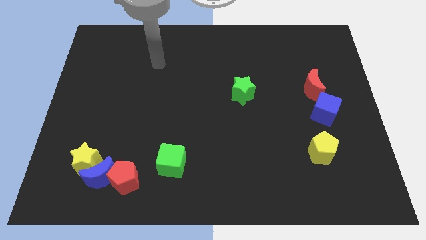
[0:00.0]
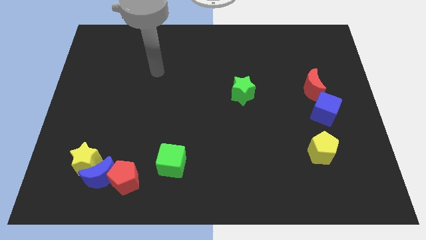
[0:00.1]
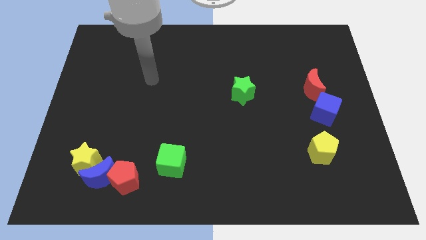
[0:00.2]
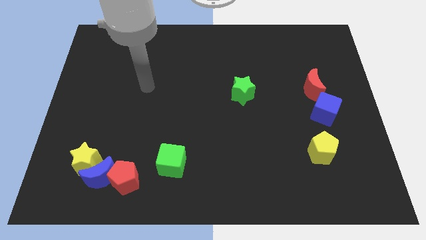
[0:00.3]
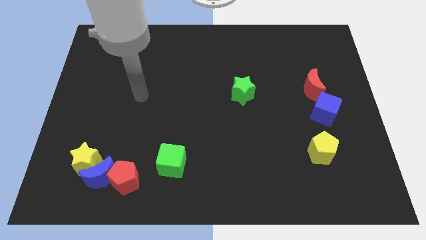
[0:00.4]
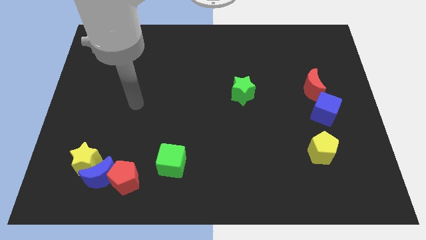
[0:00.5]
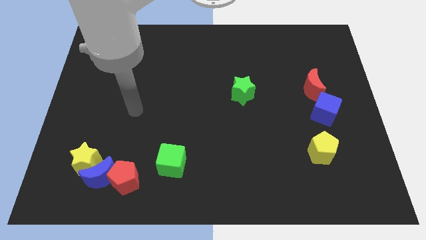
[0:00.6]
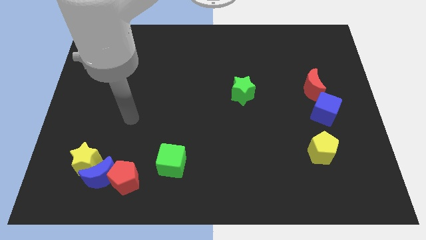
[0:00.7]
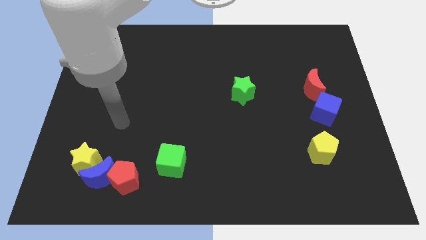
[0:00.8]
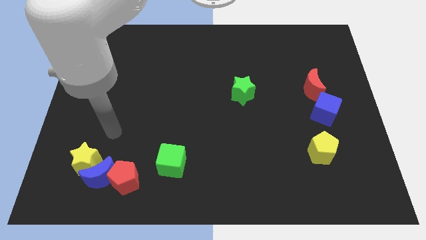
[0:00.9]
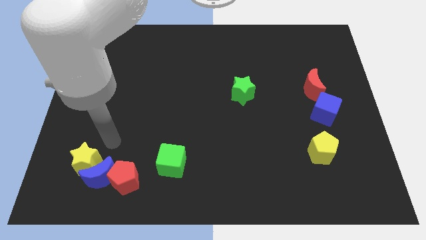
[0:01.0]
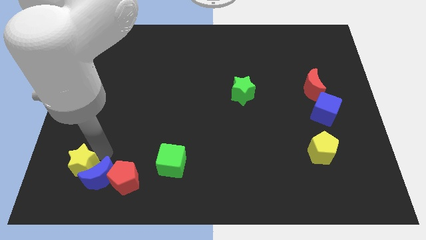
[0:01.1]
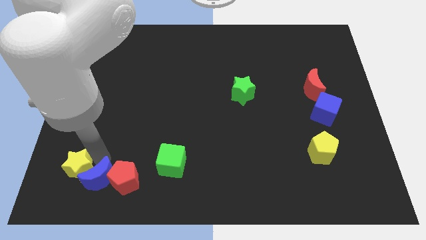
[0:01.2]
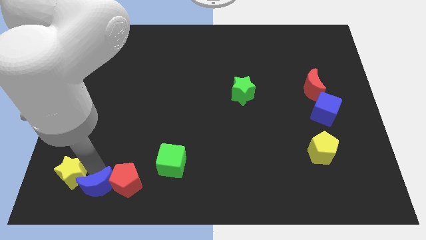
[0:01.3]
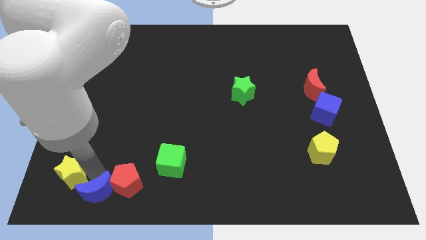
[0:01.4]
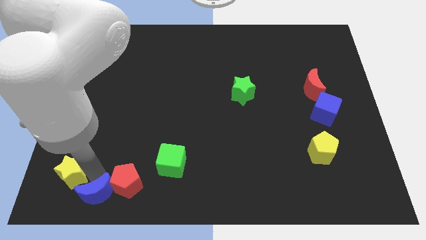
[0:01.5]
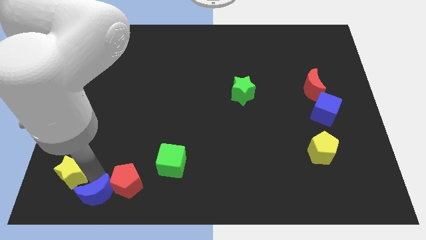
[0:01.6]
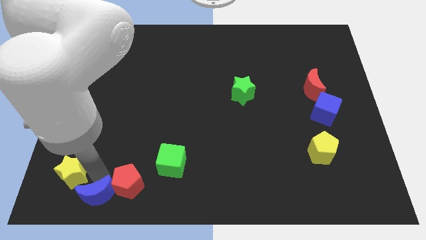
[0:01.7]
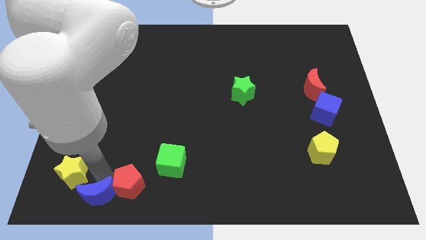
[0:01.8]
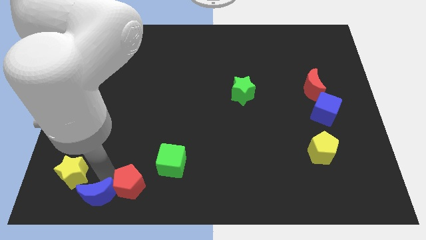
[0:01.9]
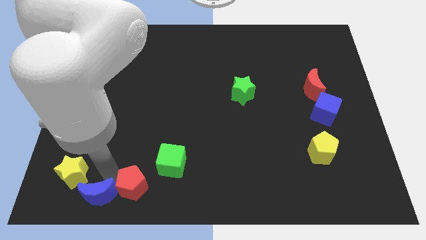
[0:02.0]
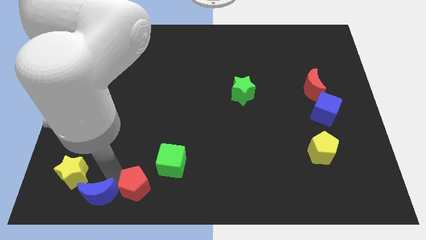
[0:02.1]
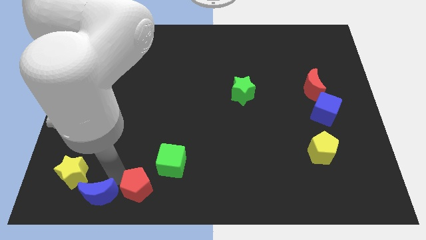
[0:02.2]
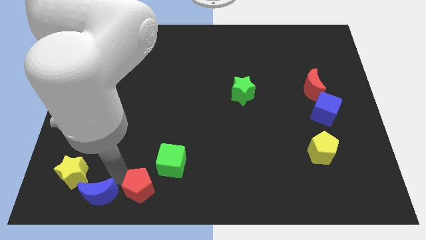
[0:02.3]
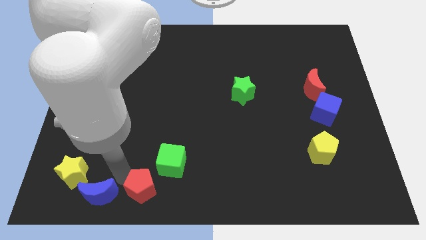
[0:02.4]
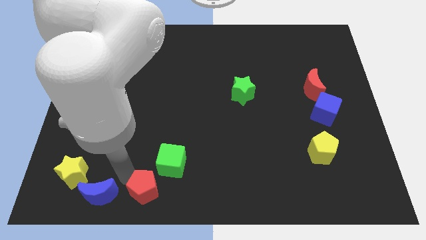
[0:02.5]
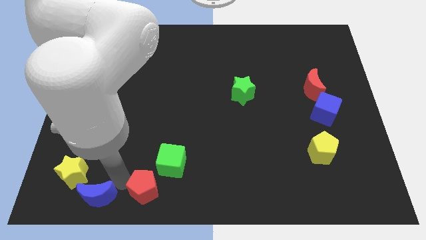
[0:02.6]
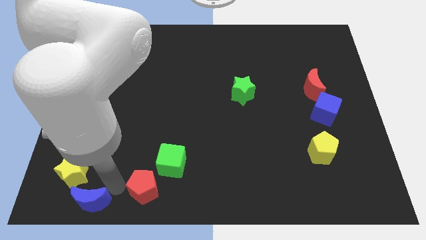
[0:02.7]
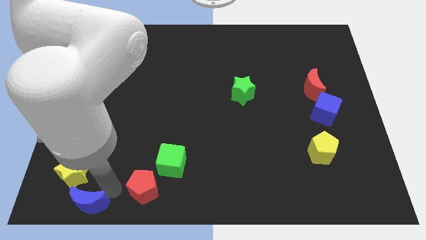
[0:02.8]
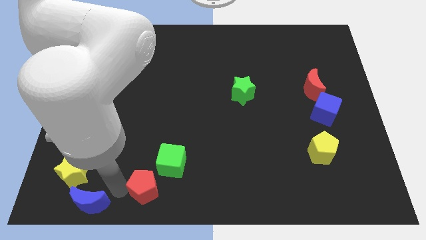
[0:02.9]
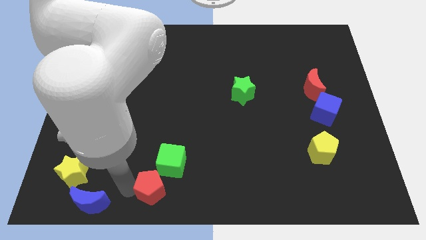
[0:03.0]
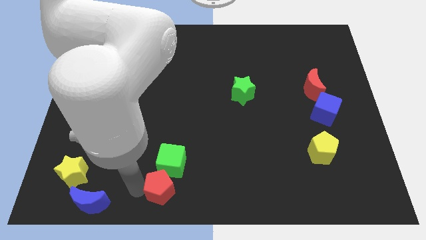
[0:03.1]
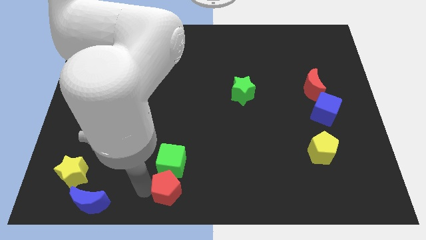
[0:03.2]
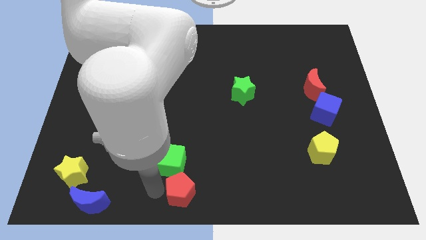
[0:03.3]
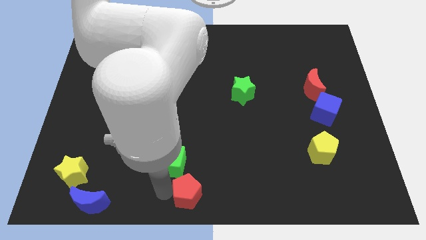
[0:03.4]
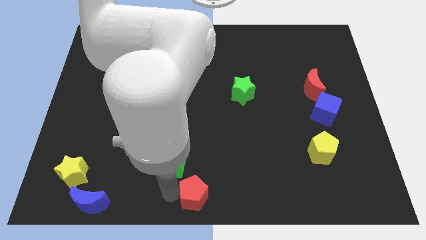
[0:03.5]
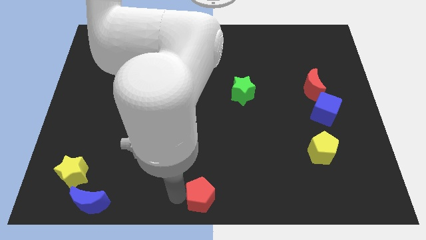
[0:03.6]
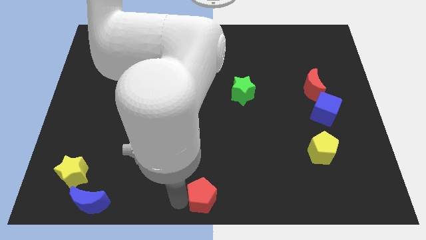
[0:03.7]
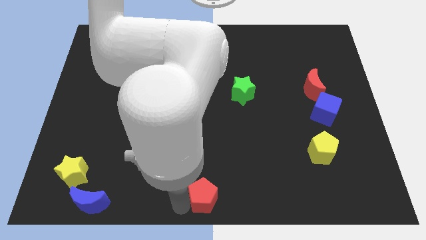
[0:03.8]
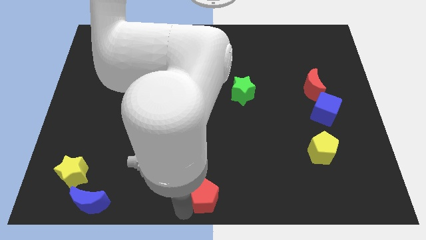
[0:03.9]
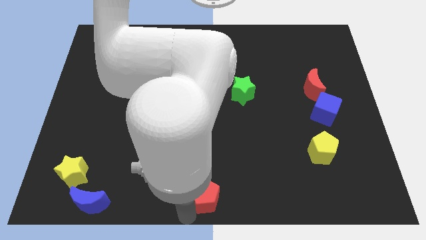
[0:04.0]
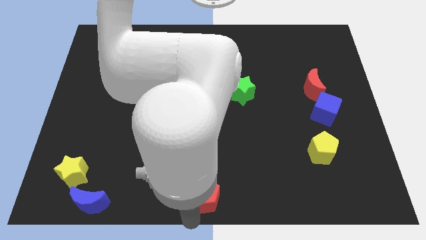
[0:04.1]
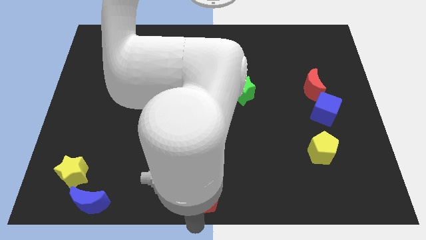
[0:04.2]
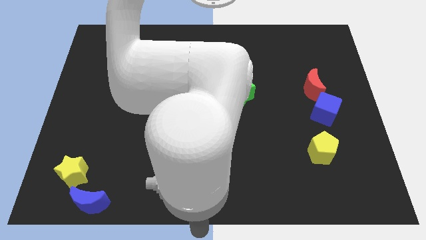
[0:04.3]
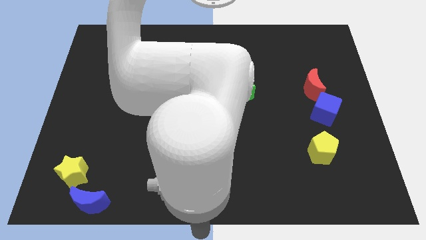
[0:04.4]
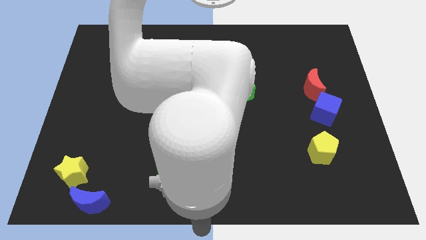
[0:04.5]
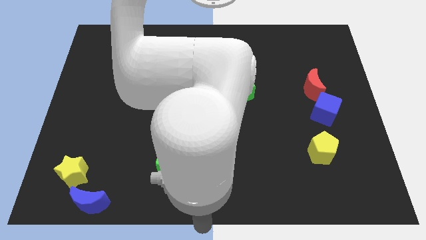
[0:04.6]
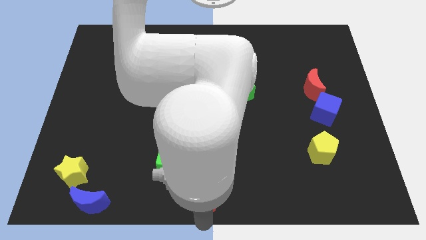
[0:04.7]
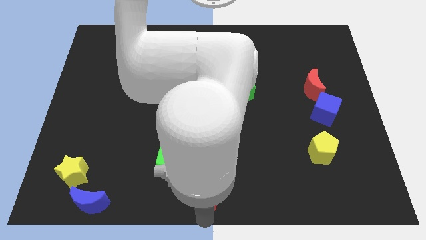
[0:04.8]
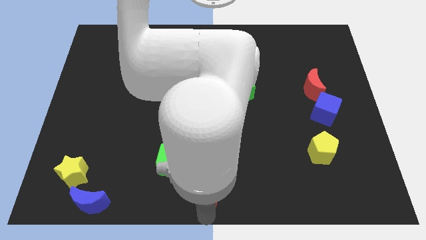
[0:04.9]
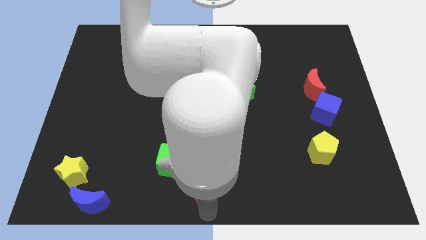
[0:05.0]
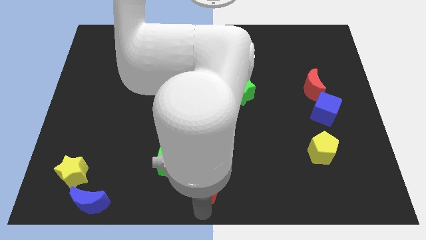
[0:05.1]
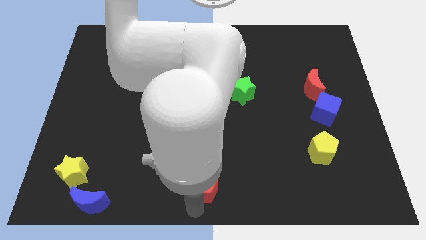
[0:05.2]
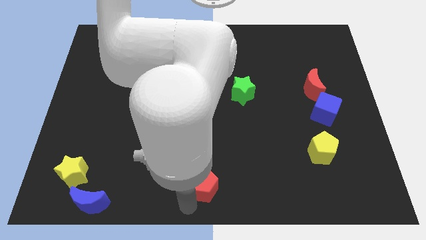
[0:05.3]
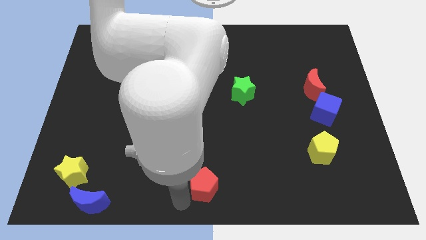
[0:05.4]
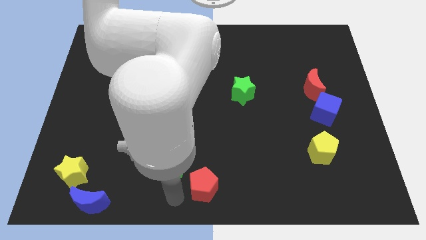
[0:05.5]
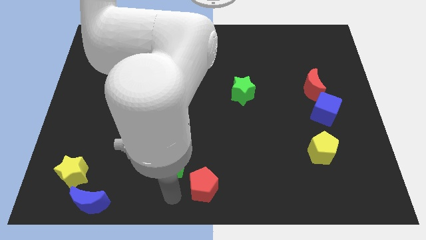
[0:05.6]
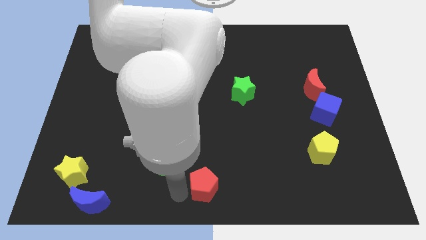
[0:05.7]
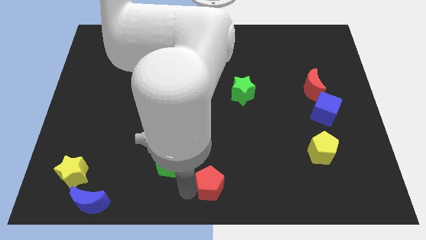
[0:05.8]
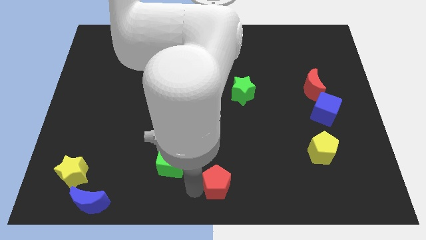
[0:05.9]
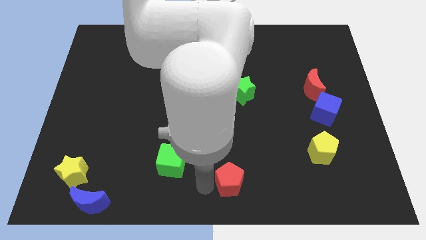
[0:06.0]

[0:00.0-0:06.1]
slide the red pentagon to the right

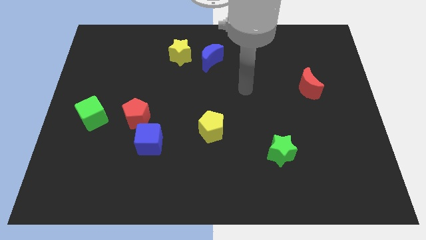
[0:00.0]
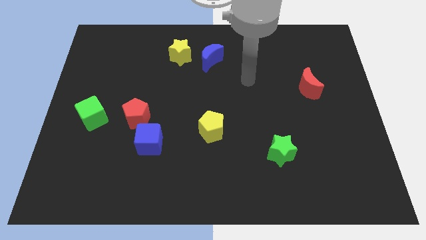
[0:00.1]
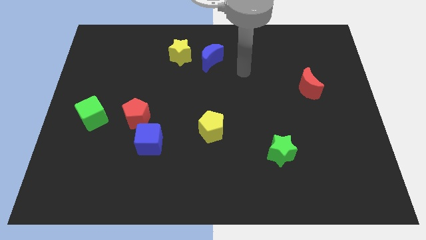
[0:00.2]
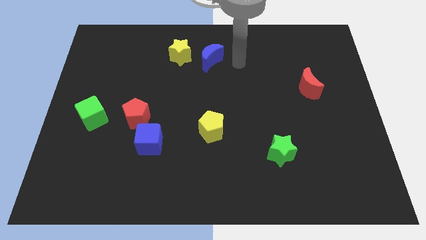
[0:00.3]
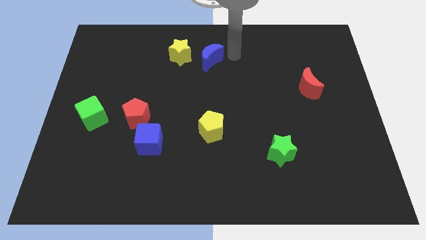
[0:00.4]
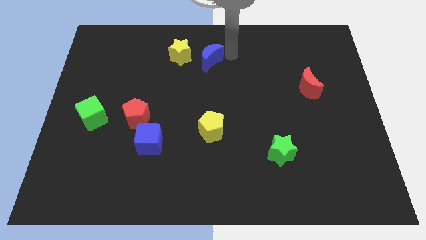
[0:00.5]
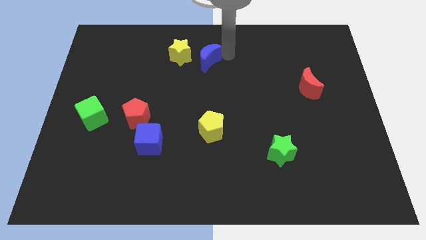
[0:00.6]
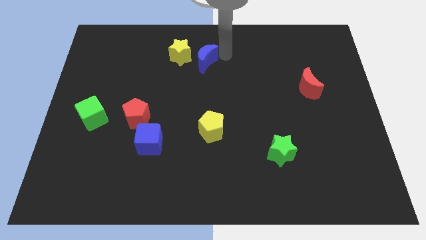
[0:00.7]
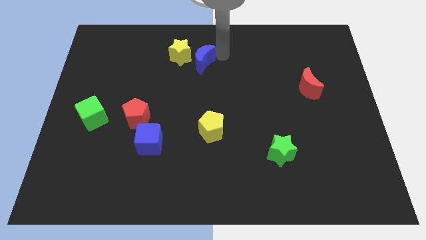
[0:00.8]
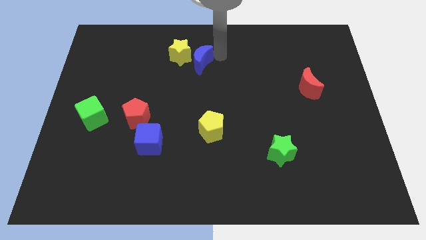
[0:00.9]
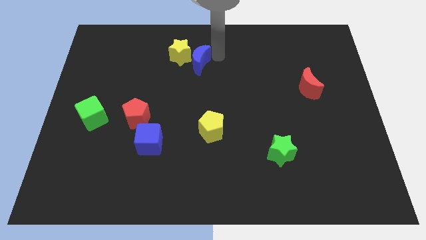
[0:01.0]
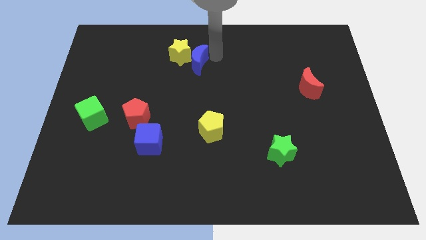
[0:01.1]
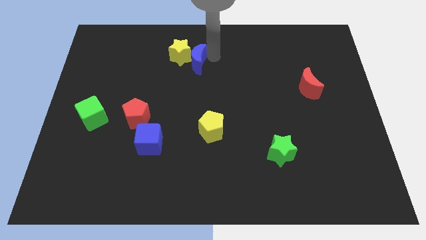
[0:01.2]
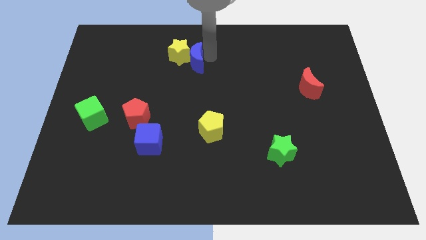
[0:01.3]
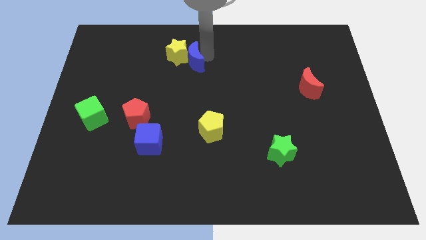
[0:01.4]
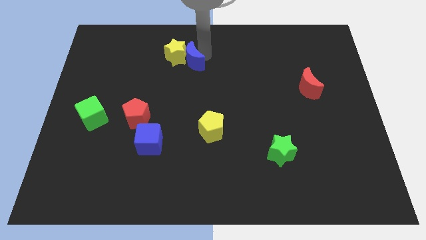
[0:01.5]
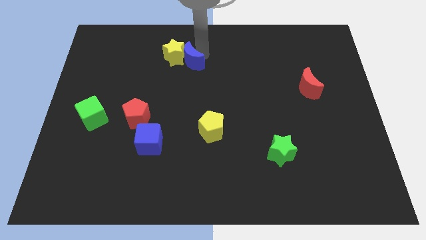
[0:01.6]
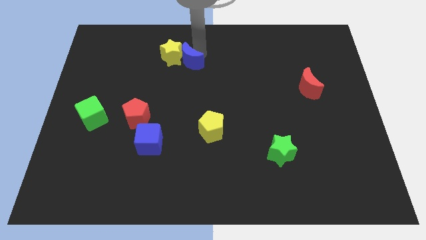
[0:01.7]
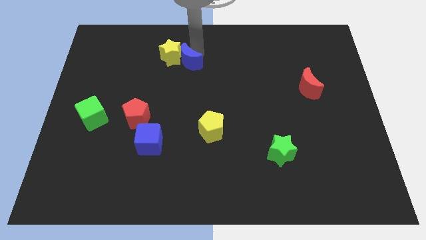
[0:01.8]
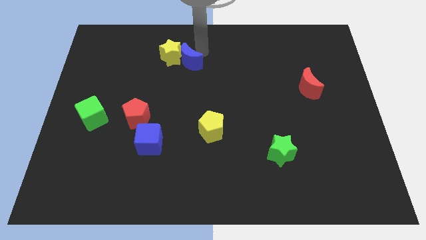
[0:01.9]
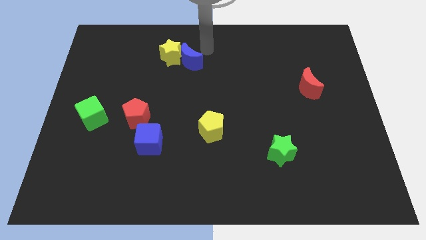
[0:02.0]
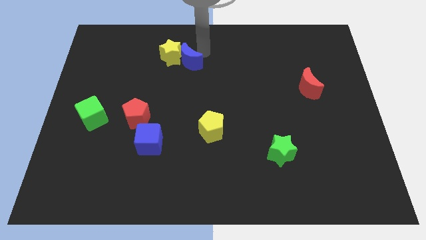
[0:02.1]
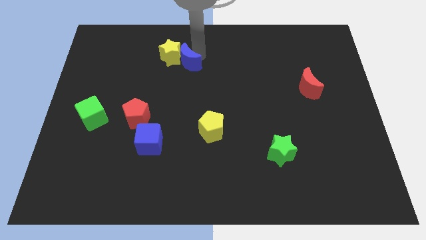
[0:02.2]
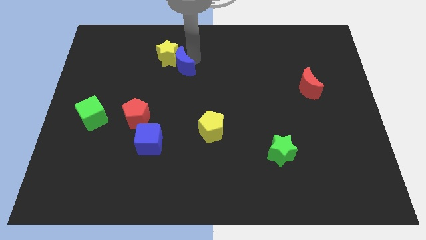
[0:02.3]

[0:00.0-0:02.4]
slightly push the blue moon left
